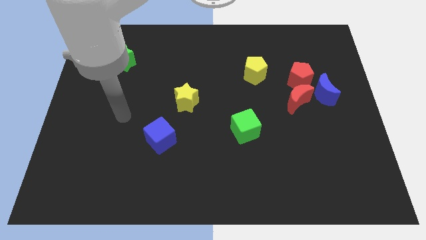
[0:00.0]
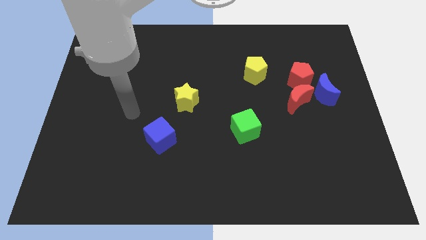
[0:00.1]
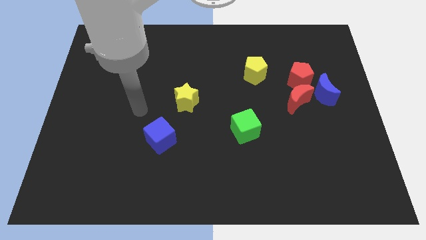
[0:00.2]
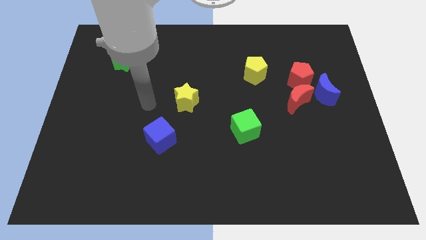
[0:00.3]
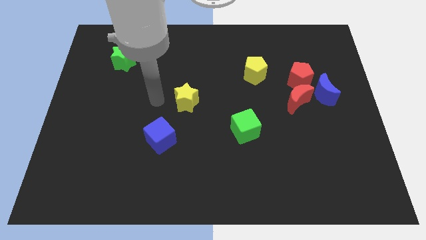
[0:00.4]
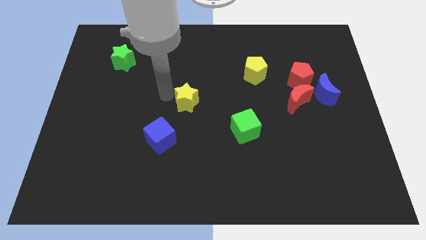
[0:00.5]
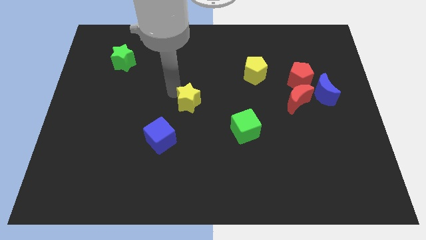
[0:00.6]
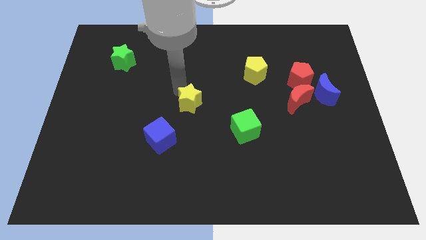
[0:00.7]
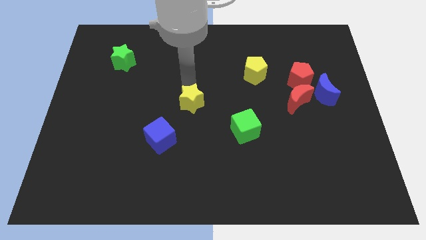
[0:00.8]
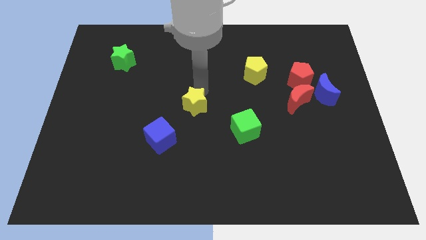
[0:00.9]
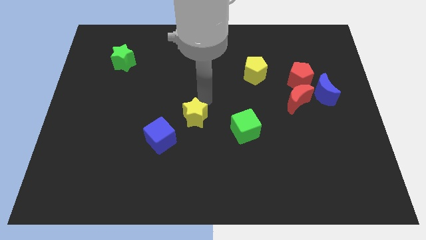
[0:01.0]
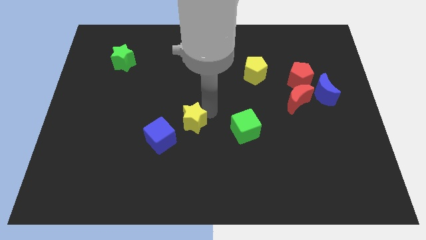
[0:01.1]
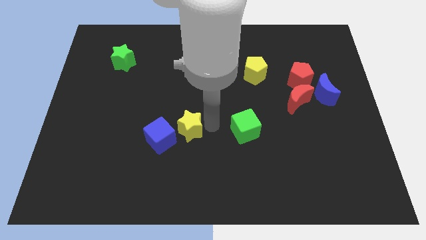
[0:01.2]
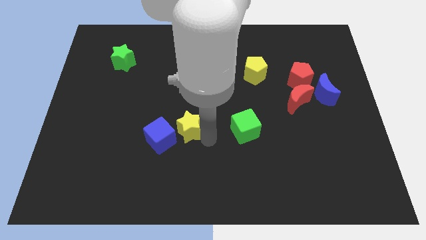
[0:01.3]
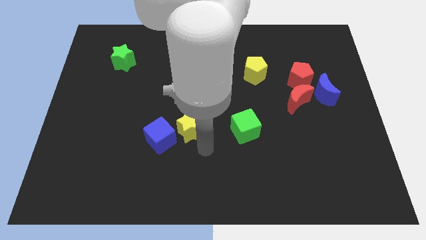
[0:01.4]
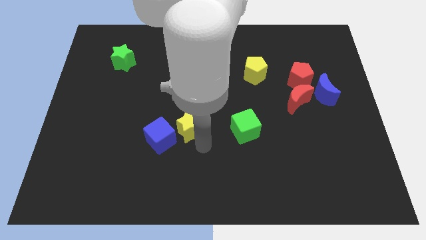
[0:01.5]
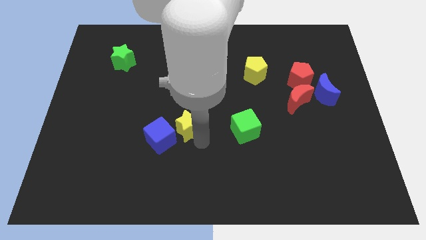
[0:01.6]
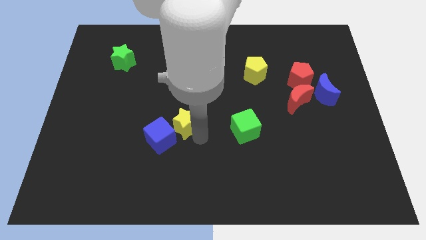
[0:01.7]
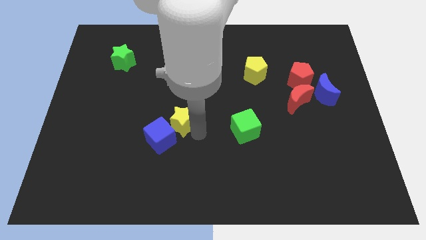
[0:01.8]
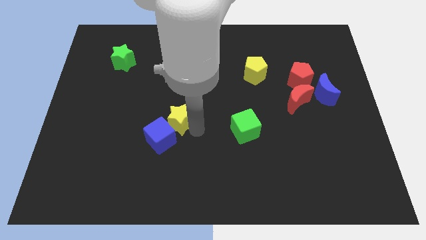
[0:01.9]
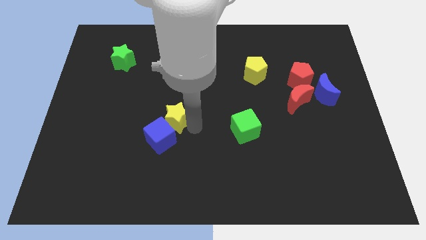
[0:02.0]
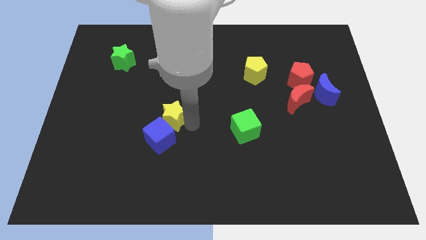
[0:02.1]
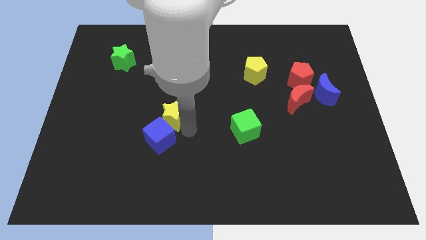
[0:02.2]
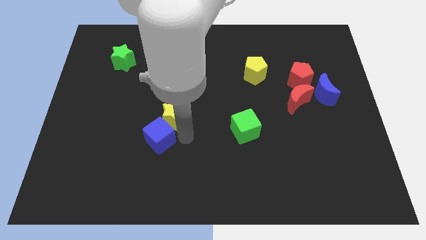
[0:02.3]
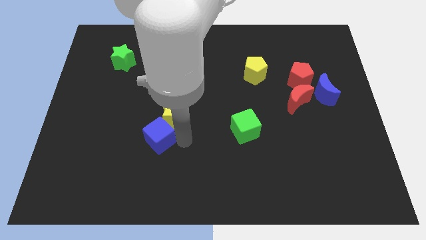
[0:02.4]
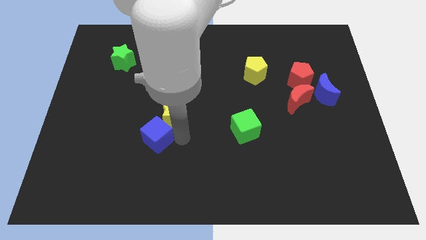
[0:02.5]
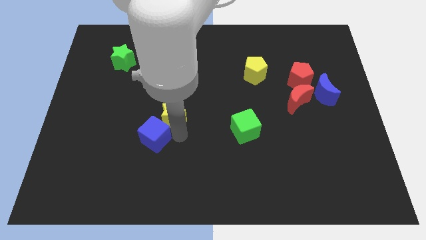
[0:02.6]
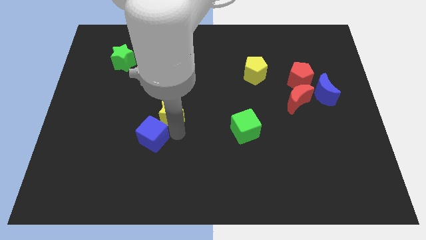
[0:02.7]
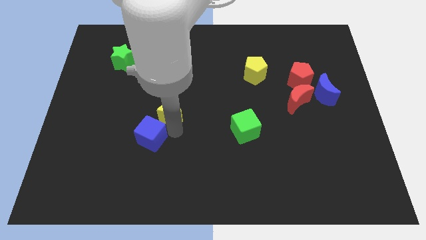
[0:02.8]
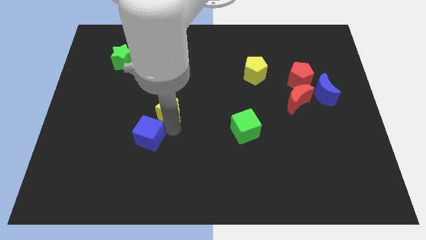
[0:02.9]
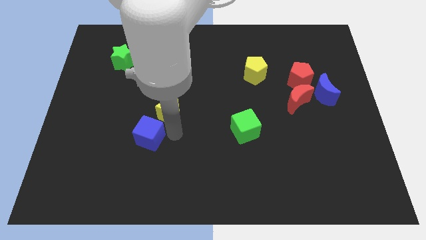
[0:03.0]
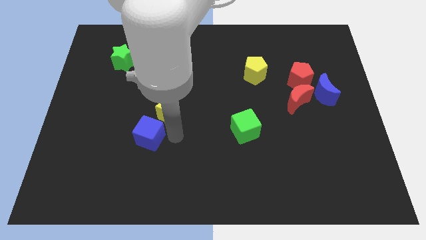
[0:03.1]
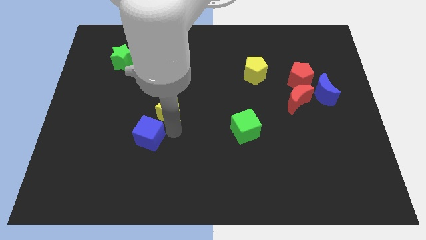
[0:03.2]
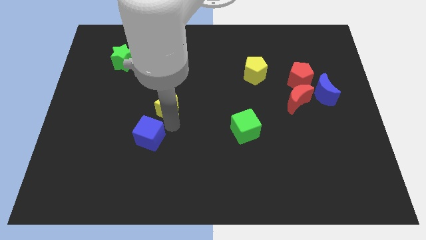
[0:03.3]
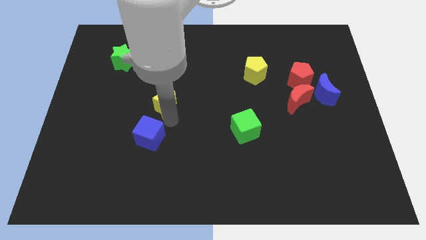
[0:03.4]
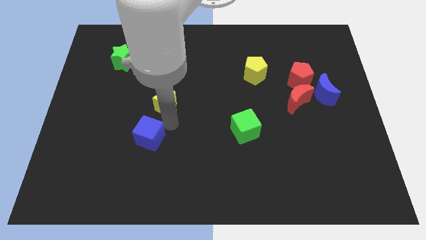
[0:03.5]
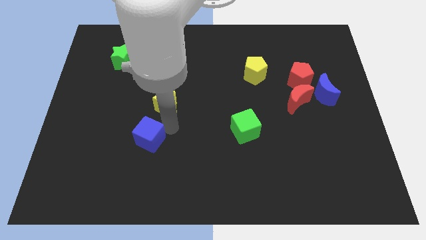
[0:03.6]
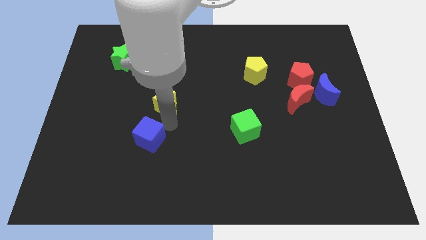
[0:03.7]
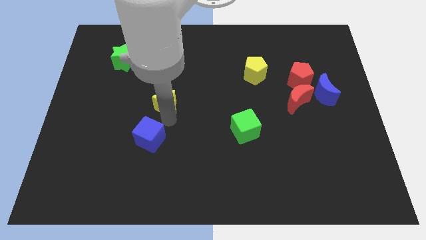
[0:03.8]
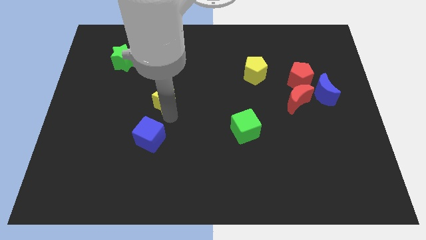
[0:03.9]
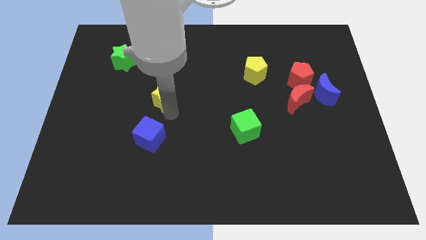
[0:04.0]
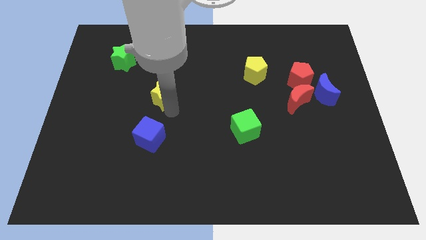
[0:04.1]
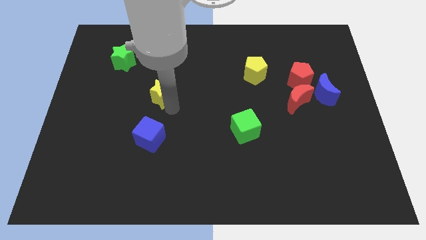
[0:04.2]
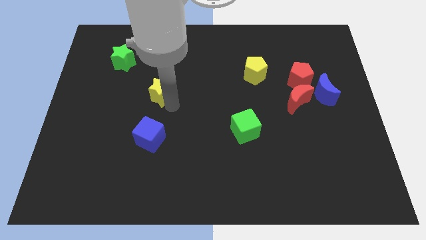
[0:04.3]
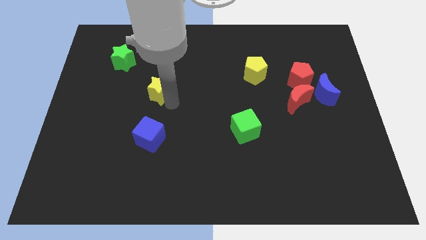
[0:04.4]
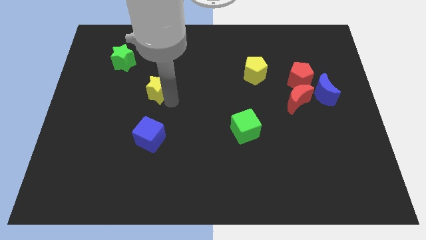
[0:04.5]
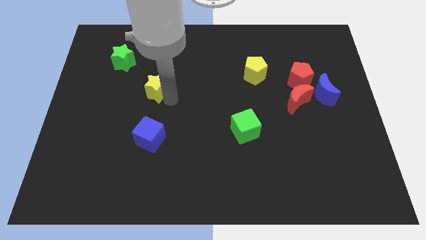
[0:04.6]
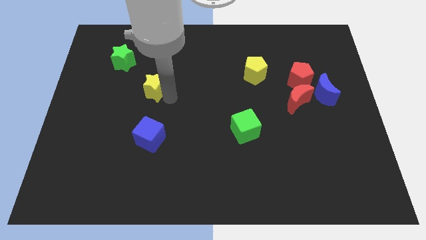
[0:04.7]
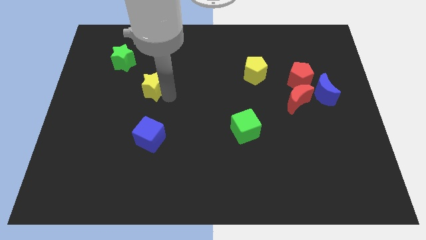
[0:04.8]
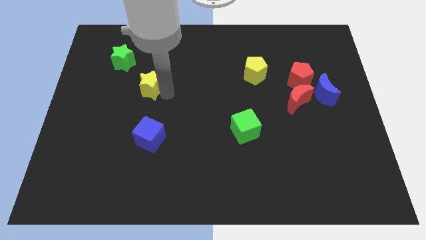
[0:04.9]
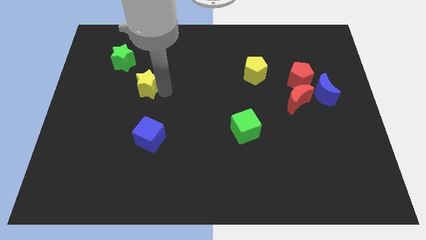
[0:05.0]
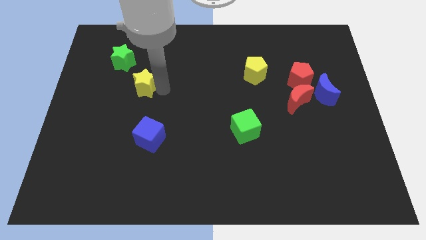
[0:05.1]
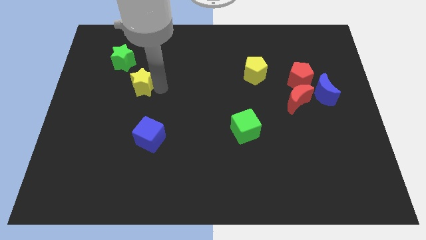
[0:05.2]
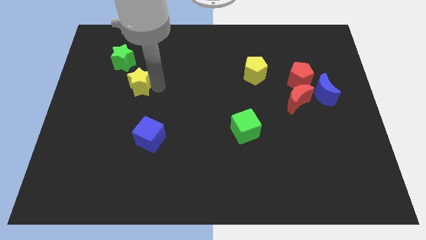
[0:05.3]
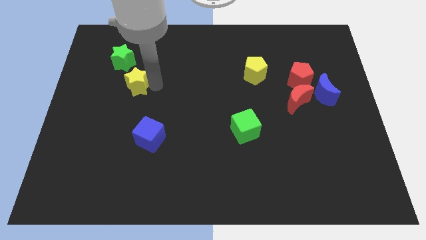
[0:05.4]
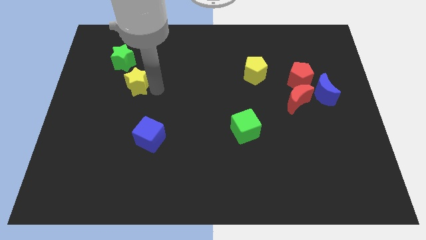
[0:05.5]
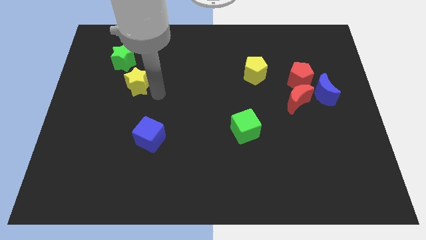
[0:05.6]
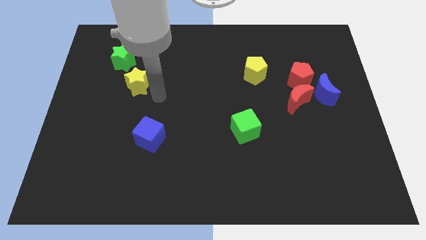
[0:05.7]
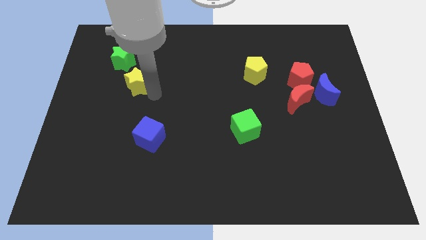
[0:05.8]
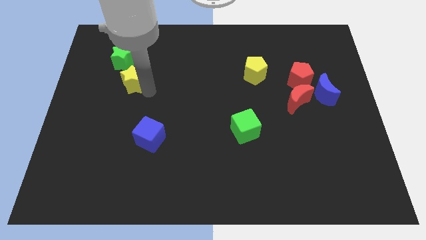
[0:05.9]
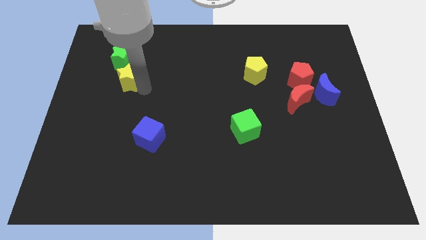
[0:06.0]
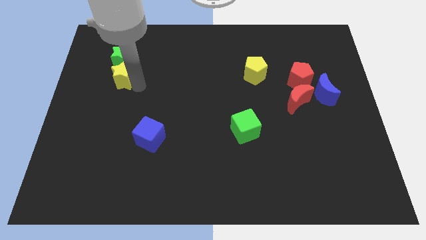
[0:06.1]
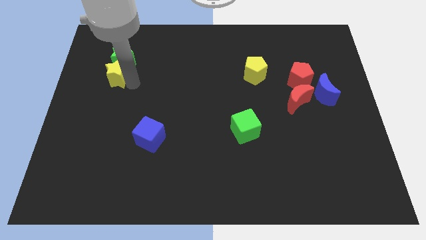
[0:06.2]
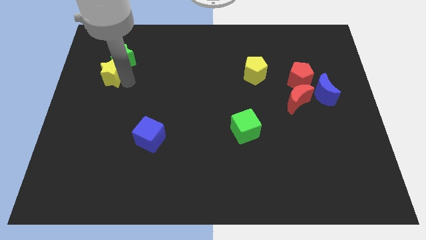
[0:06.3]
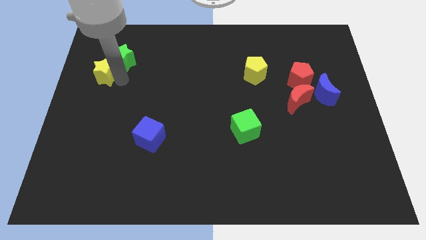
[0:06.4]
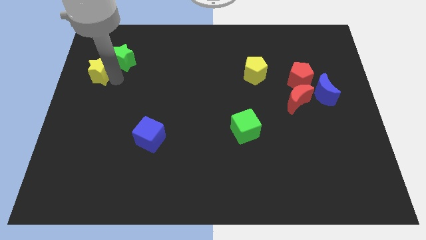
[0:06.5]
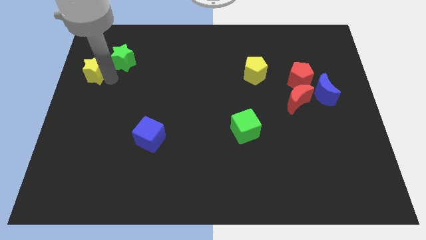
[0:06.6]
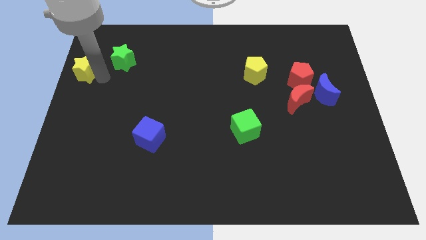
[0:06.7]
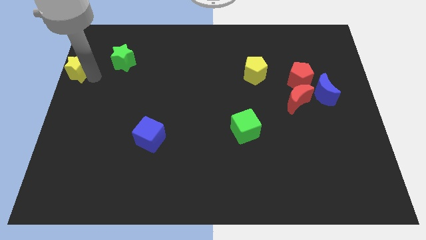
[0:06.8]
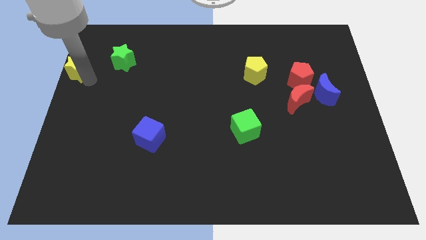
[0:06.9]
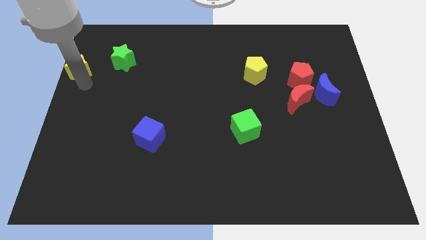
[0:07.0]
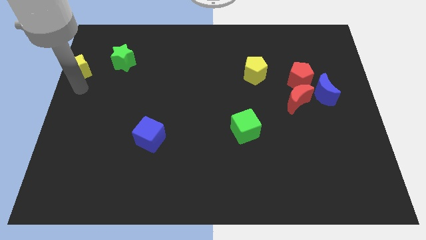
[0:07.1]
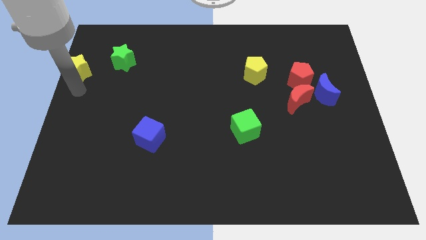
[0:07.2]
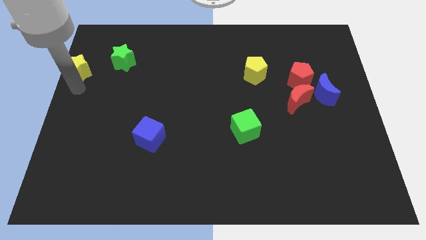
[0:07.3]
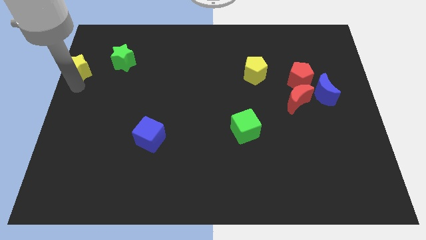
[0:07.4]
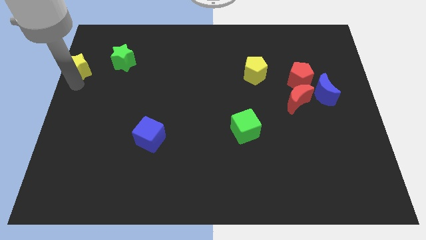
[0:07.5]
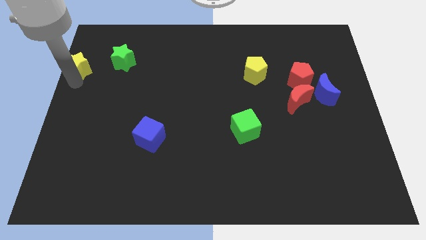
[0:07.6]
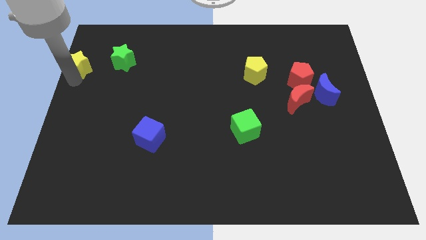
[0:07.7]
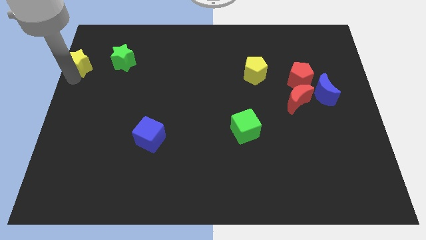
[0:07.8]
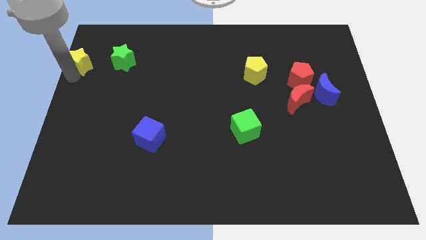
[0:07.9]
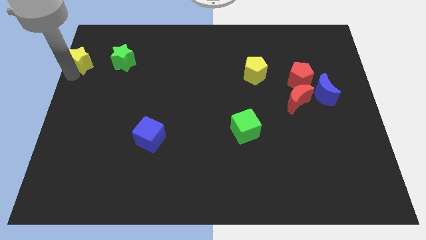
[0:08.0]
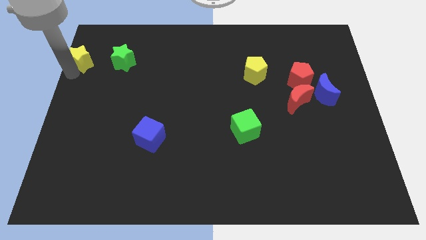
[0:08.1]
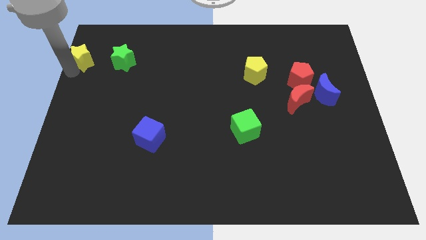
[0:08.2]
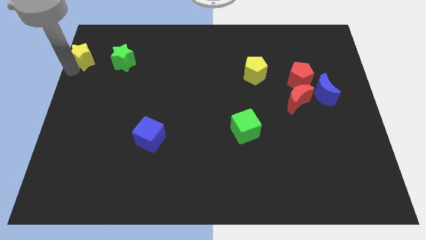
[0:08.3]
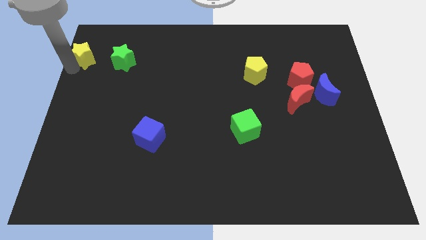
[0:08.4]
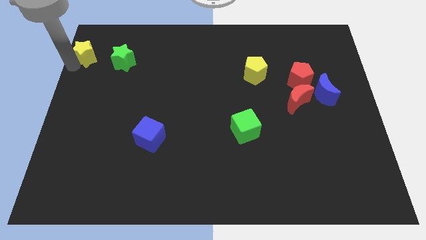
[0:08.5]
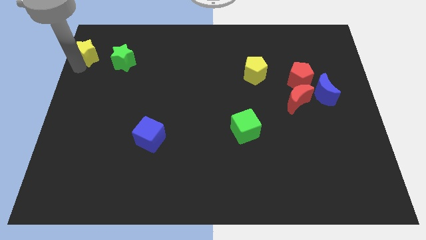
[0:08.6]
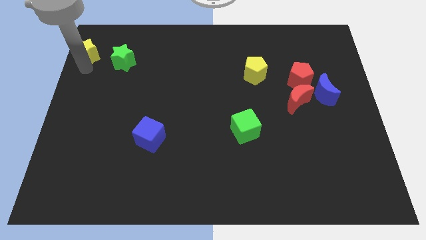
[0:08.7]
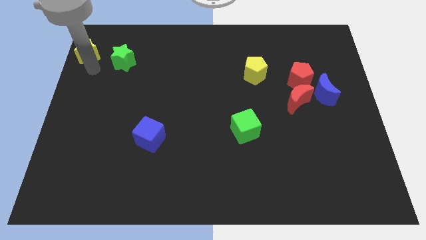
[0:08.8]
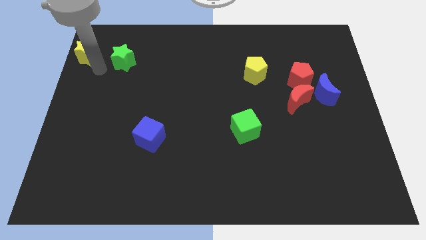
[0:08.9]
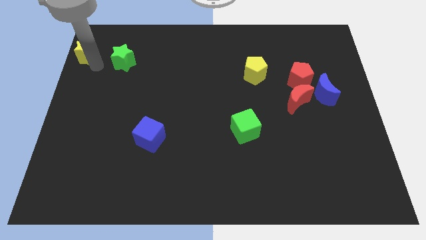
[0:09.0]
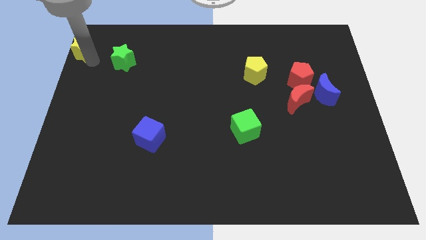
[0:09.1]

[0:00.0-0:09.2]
push the yellow star to the top left corner
